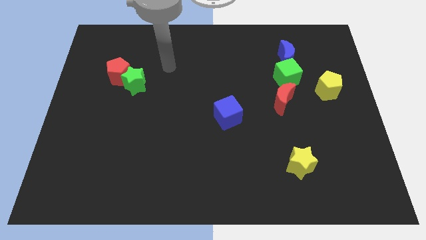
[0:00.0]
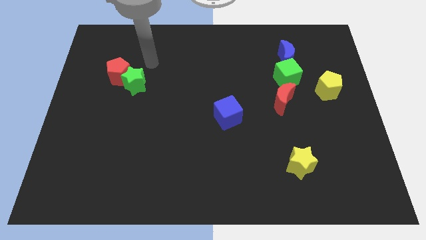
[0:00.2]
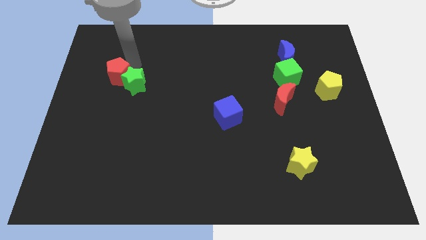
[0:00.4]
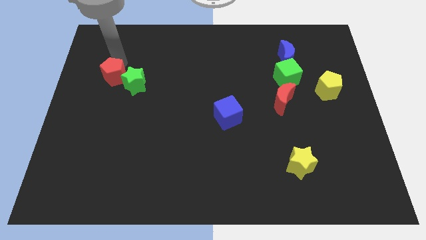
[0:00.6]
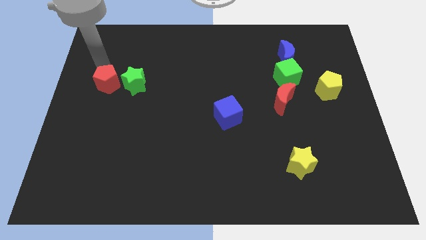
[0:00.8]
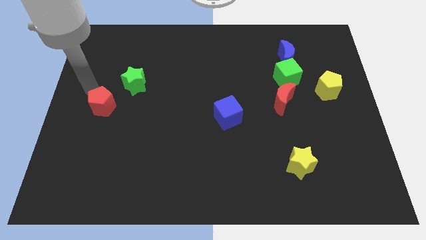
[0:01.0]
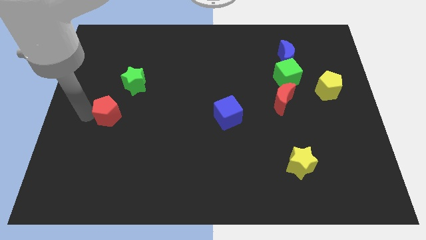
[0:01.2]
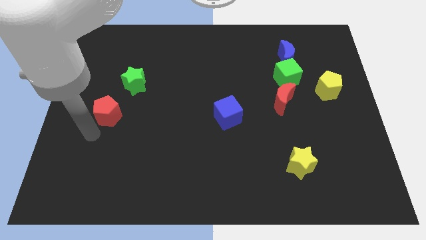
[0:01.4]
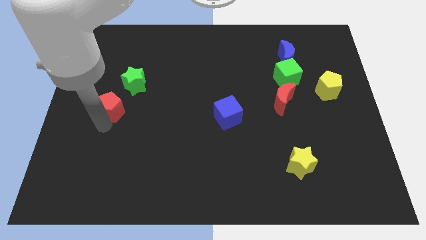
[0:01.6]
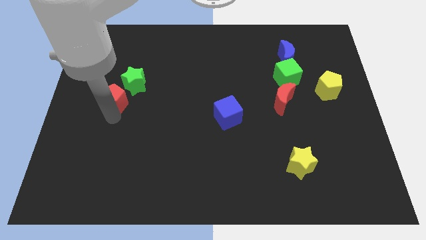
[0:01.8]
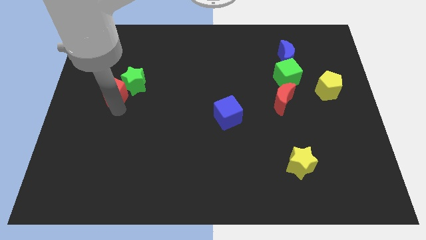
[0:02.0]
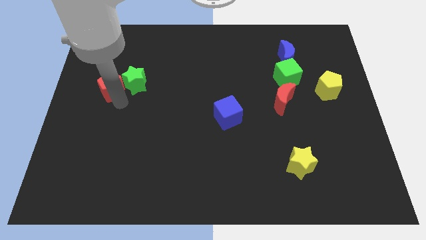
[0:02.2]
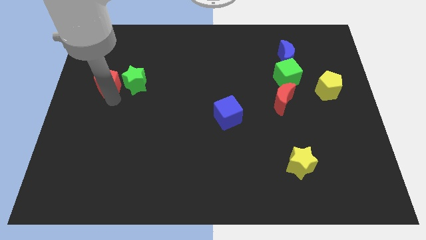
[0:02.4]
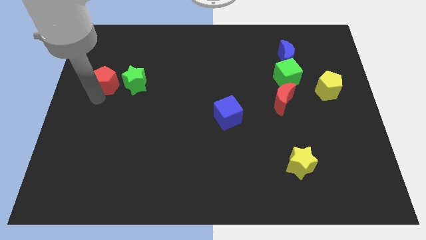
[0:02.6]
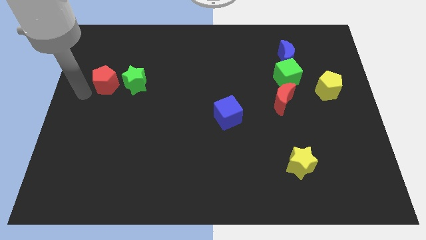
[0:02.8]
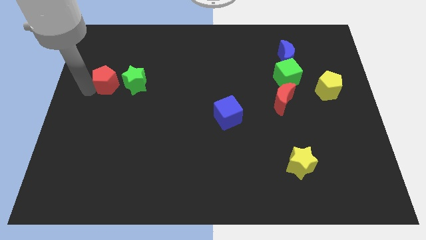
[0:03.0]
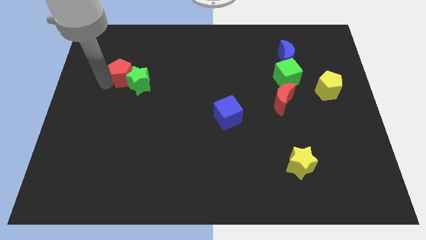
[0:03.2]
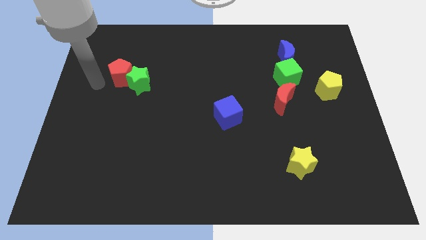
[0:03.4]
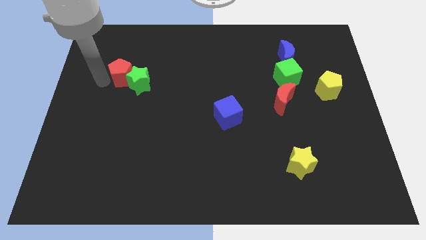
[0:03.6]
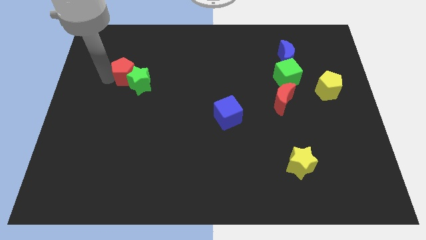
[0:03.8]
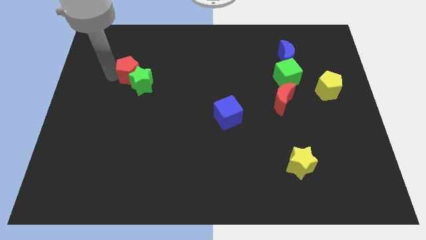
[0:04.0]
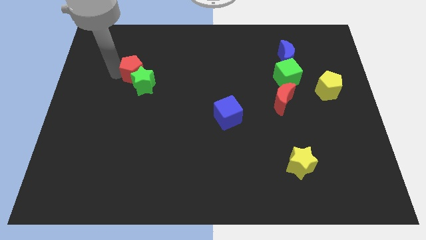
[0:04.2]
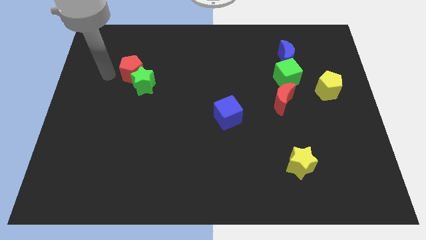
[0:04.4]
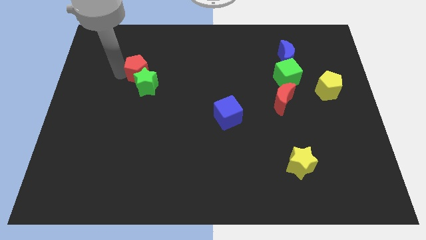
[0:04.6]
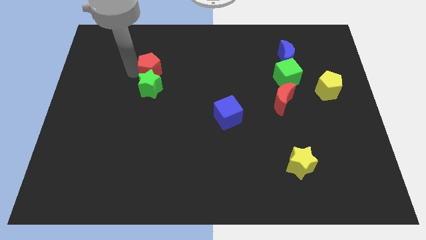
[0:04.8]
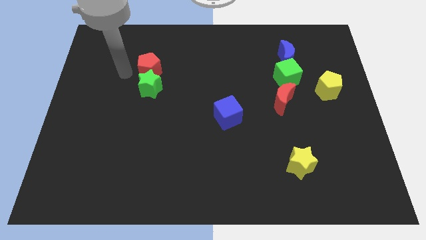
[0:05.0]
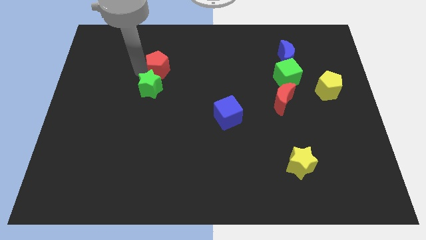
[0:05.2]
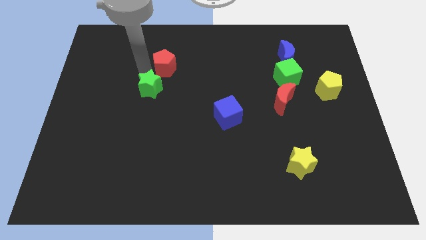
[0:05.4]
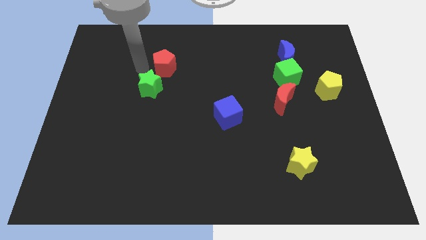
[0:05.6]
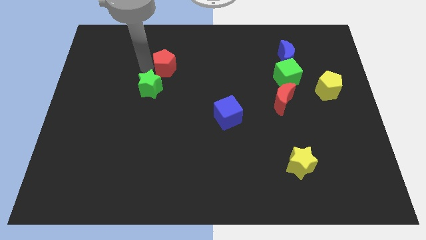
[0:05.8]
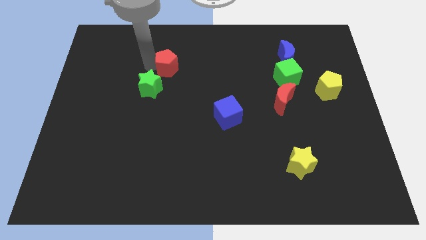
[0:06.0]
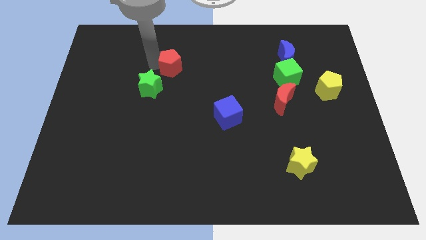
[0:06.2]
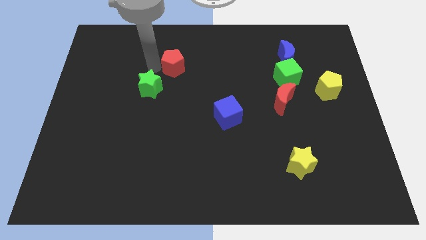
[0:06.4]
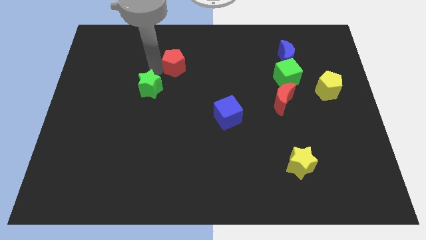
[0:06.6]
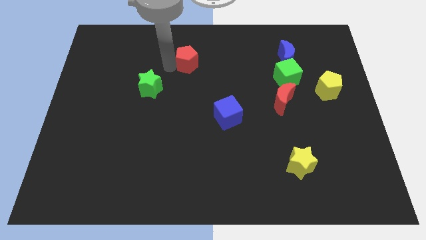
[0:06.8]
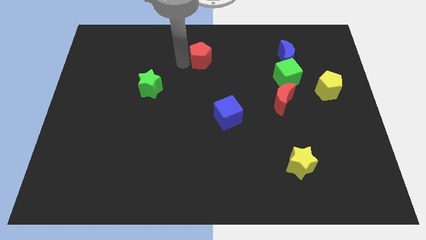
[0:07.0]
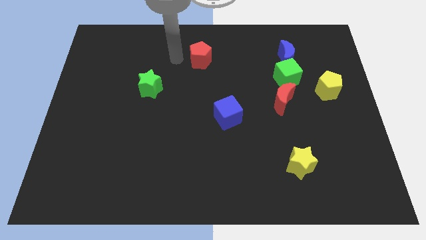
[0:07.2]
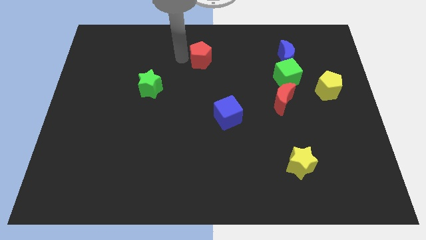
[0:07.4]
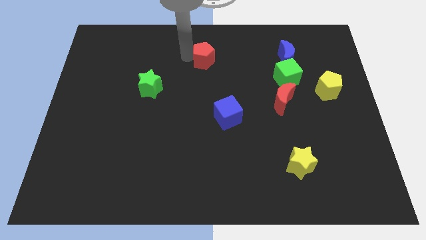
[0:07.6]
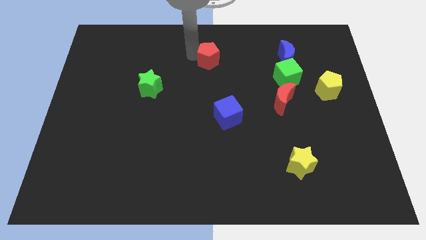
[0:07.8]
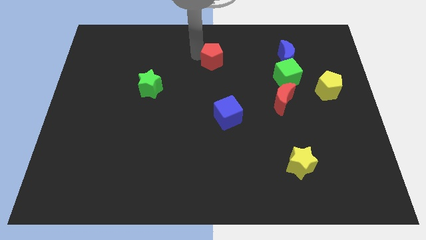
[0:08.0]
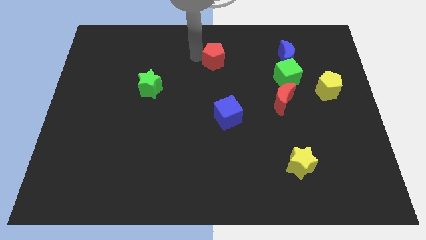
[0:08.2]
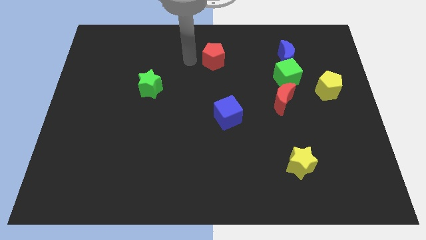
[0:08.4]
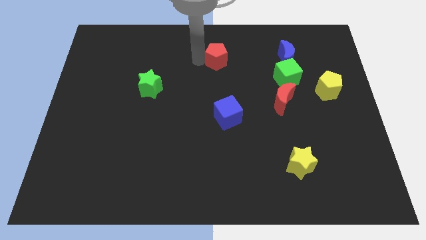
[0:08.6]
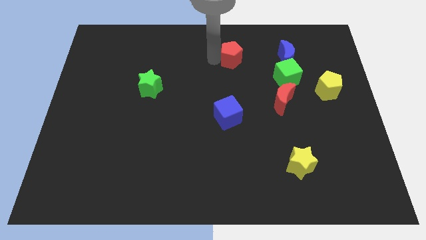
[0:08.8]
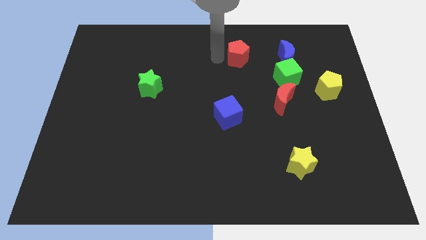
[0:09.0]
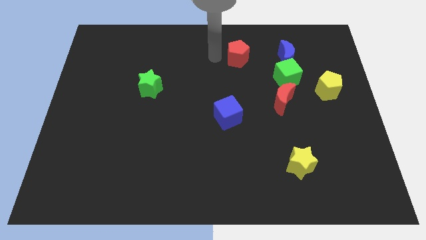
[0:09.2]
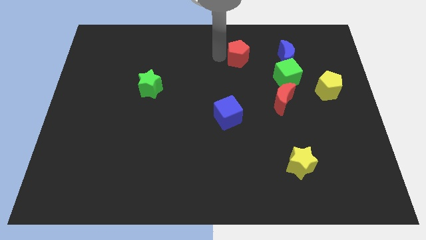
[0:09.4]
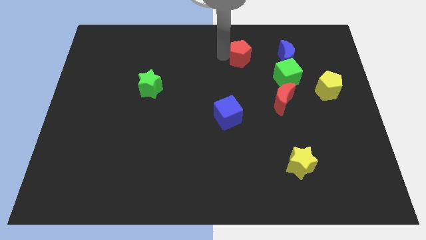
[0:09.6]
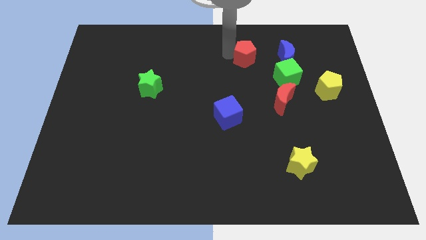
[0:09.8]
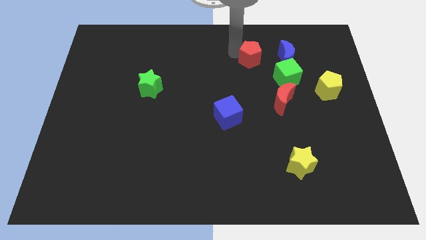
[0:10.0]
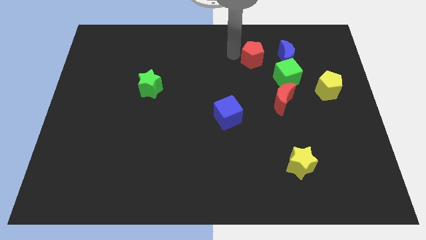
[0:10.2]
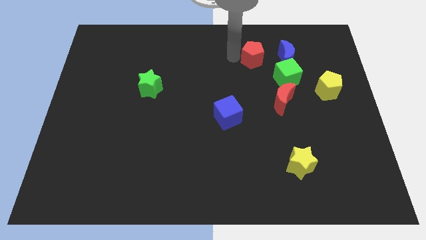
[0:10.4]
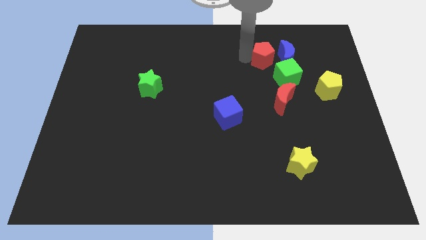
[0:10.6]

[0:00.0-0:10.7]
move the red pentagon towards the blue moon

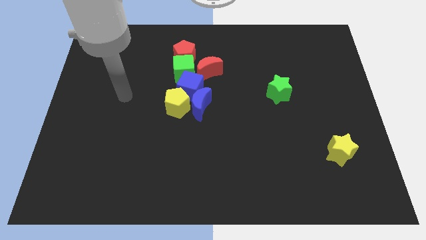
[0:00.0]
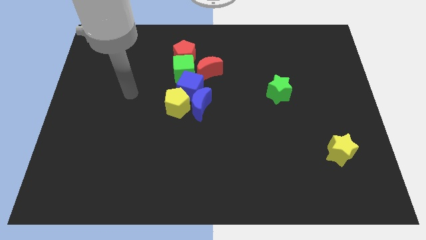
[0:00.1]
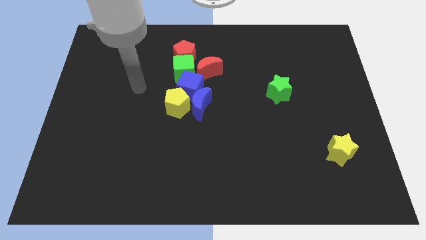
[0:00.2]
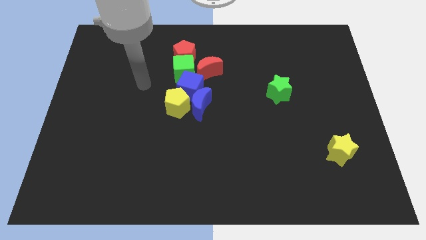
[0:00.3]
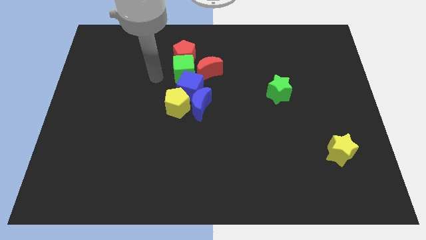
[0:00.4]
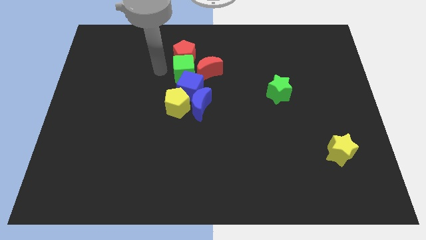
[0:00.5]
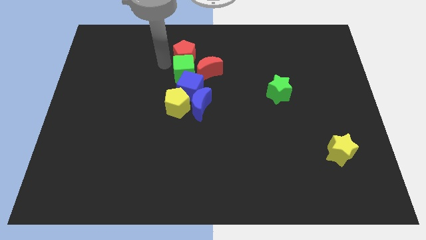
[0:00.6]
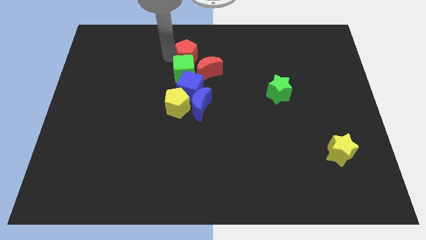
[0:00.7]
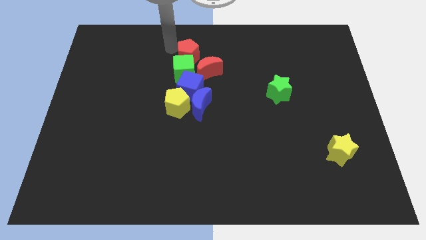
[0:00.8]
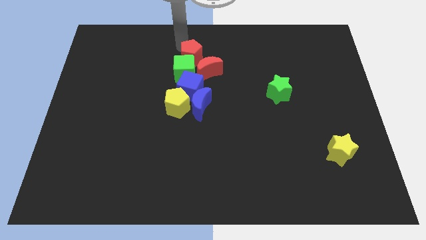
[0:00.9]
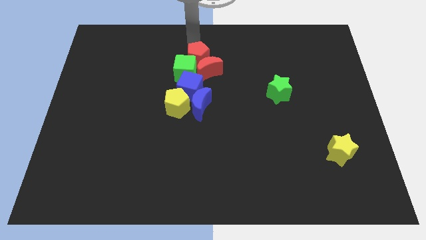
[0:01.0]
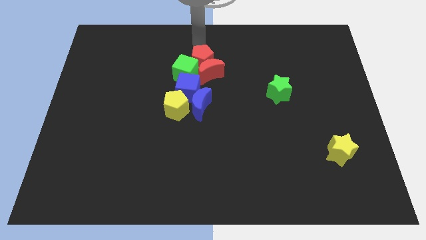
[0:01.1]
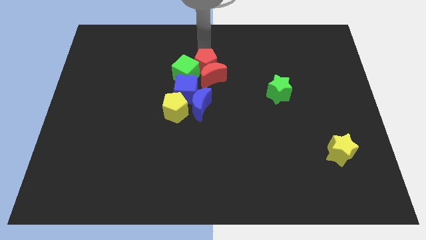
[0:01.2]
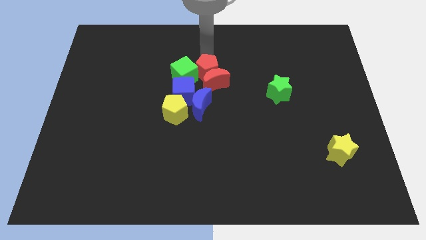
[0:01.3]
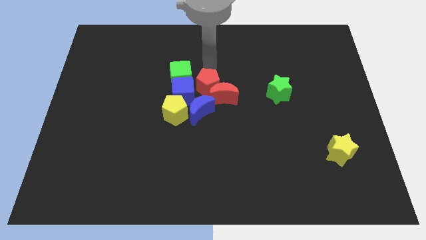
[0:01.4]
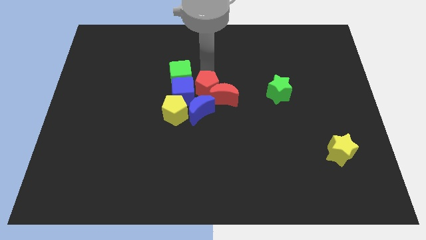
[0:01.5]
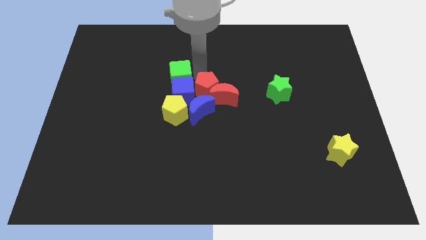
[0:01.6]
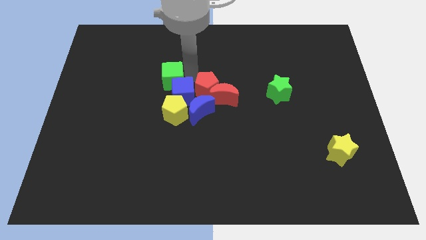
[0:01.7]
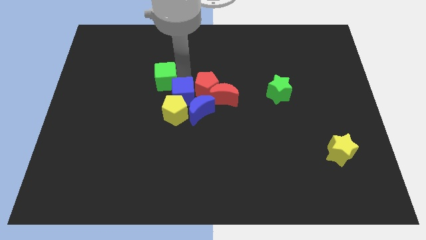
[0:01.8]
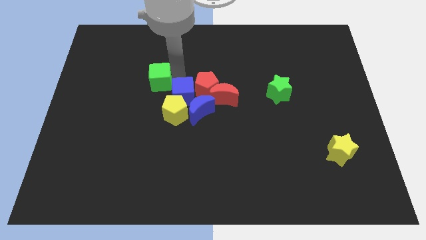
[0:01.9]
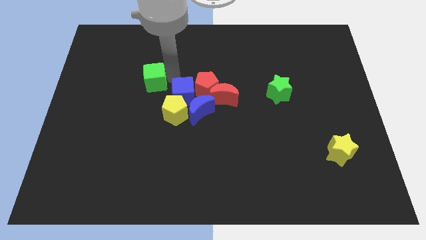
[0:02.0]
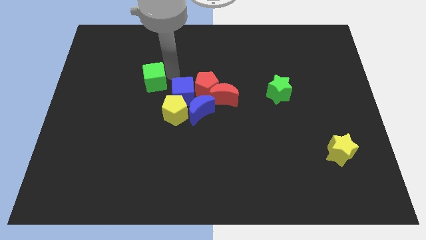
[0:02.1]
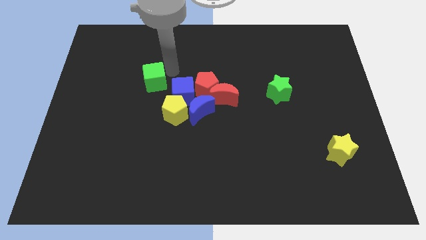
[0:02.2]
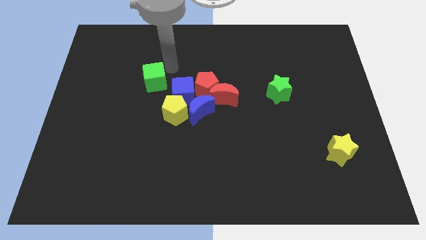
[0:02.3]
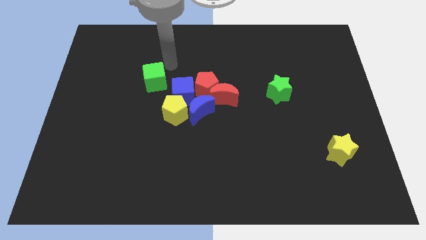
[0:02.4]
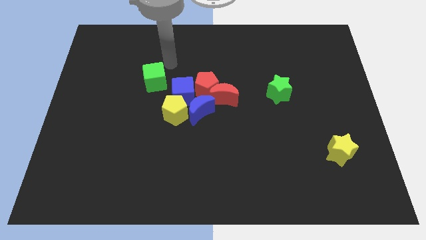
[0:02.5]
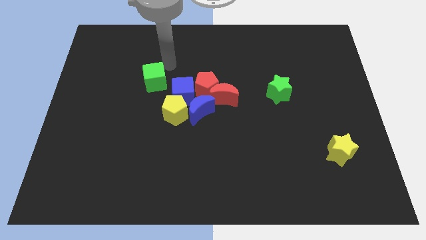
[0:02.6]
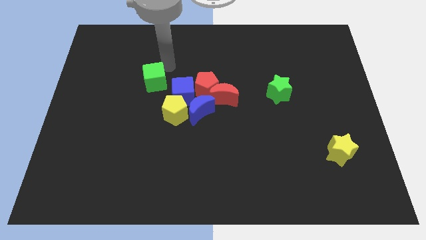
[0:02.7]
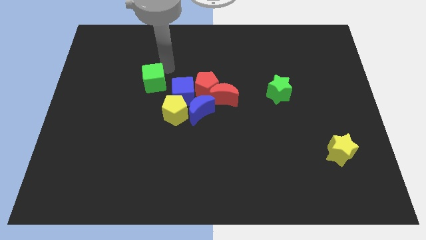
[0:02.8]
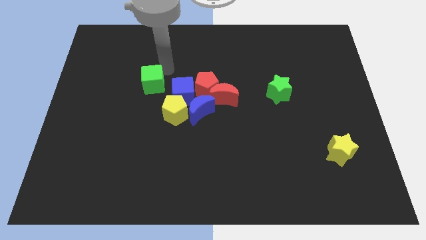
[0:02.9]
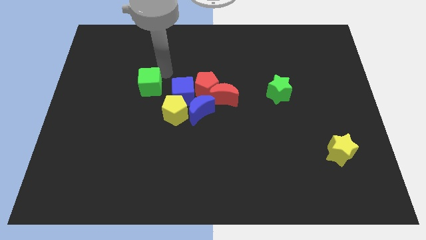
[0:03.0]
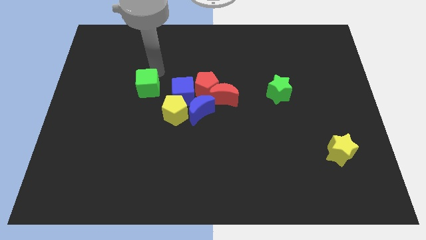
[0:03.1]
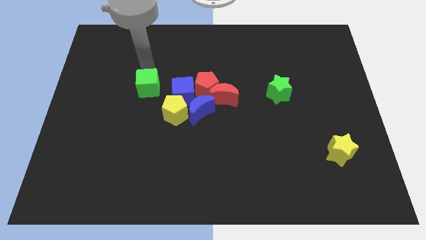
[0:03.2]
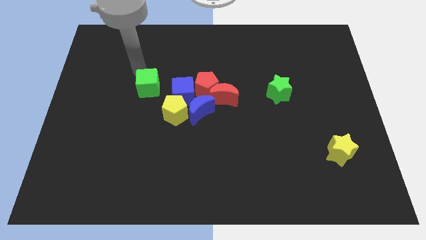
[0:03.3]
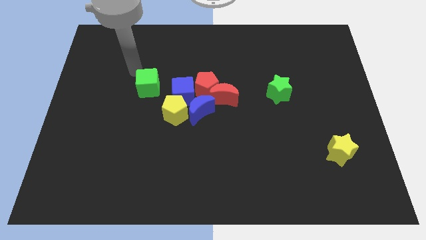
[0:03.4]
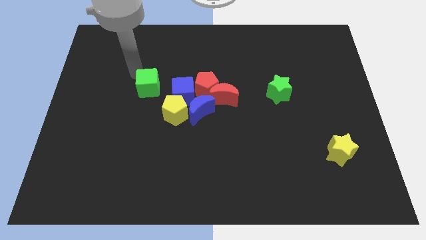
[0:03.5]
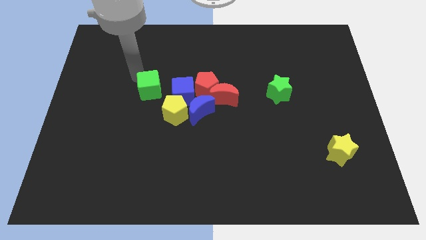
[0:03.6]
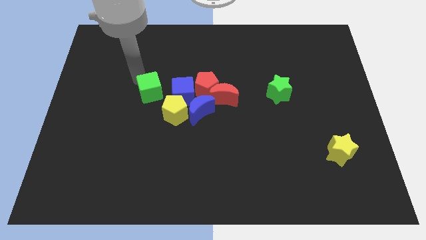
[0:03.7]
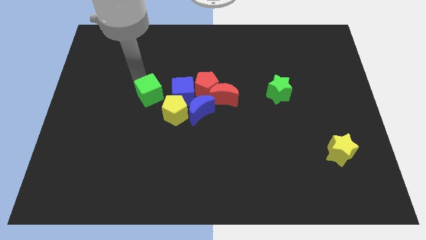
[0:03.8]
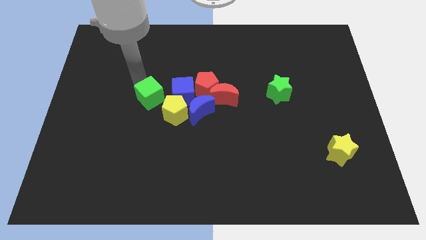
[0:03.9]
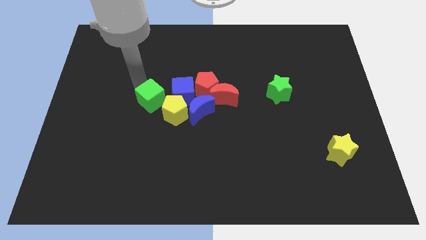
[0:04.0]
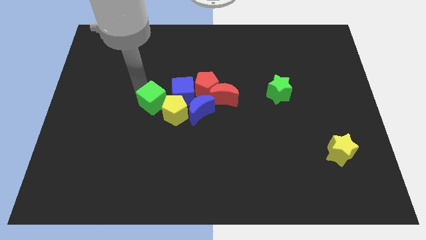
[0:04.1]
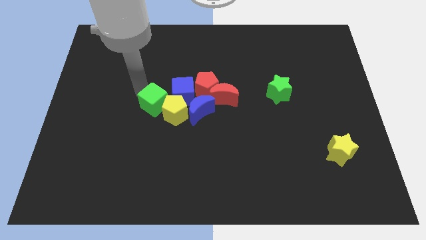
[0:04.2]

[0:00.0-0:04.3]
put the green cube close to the yellow pentagon
